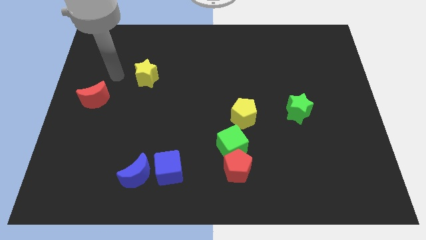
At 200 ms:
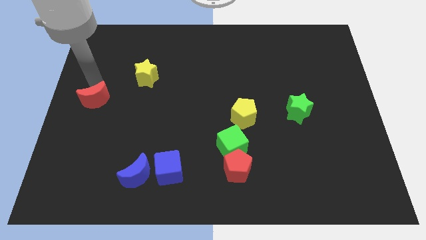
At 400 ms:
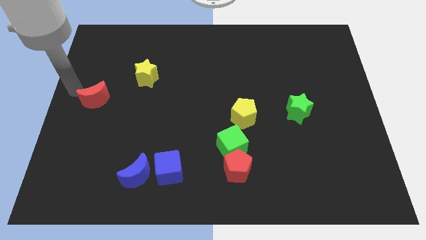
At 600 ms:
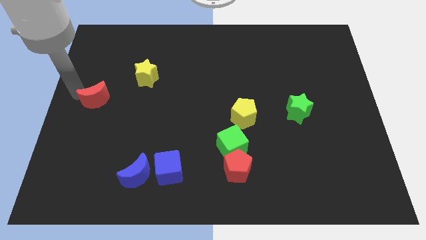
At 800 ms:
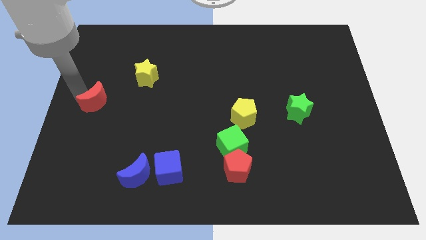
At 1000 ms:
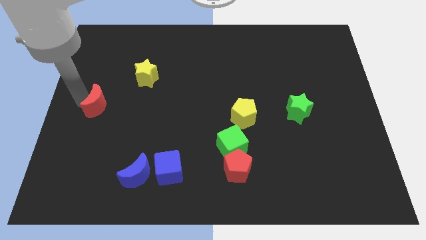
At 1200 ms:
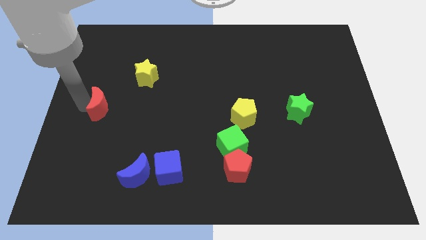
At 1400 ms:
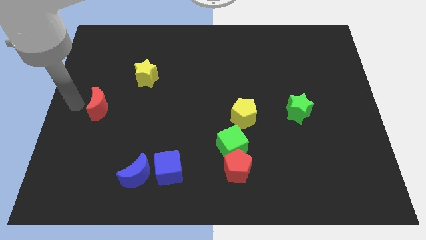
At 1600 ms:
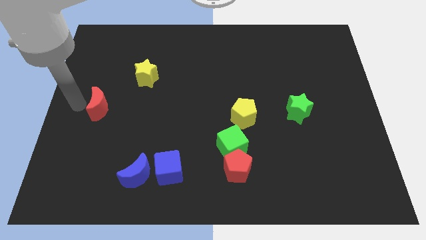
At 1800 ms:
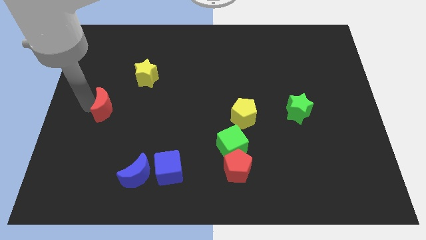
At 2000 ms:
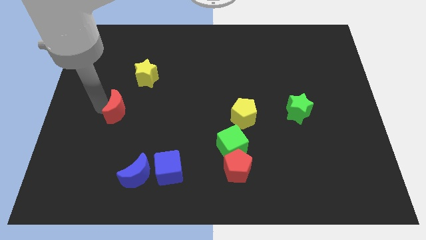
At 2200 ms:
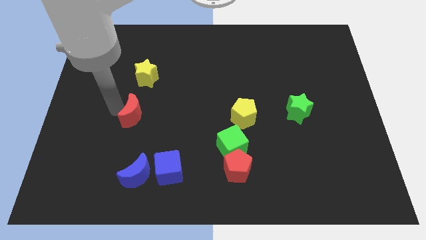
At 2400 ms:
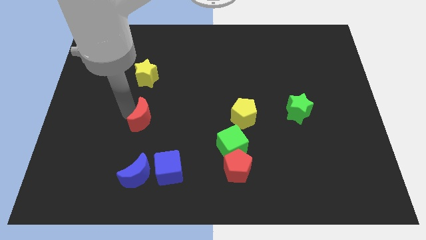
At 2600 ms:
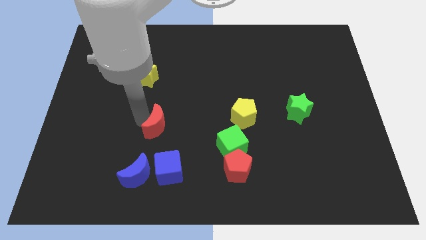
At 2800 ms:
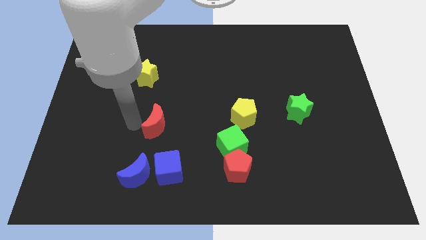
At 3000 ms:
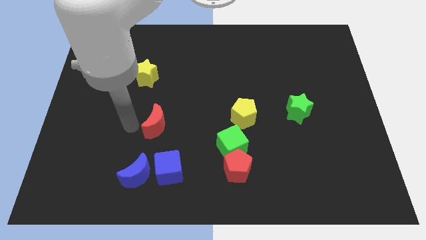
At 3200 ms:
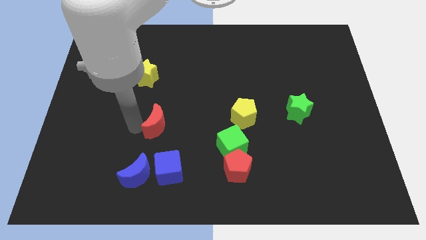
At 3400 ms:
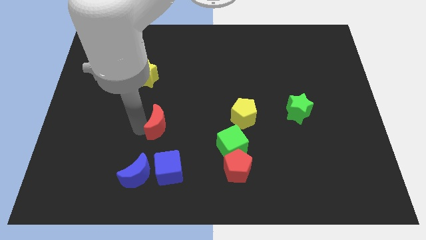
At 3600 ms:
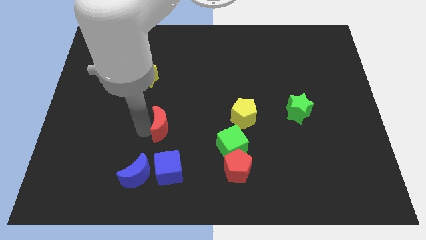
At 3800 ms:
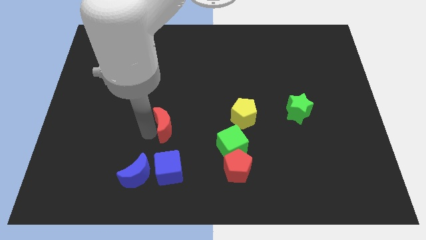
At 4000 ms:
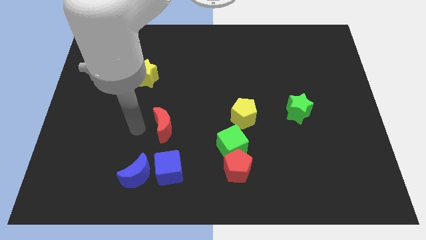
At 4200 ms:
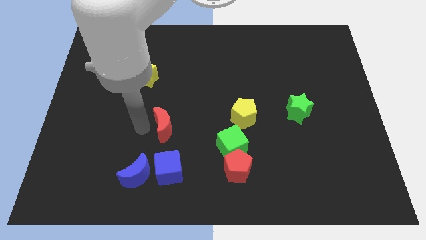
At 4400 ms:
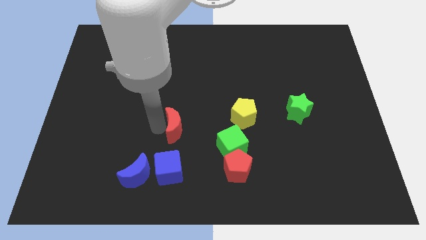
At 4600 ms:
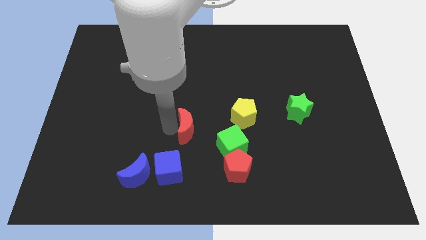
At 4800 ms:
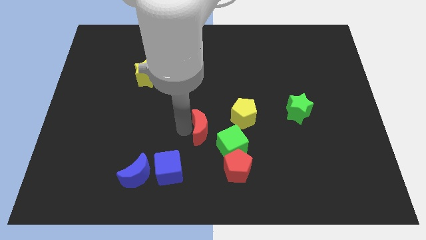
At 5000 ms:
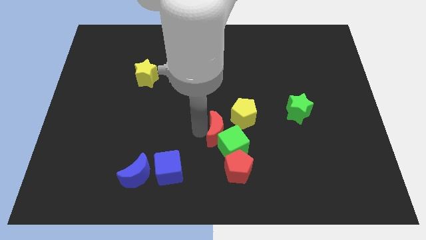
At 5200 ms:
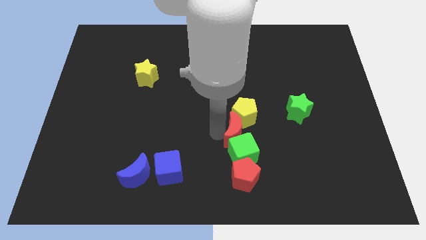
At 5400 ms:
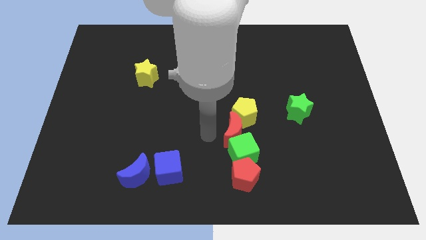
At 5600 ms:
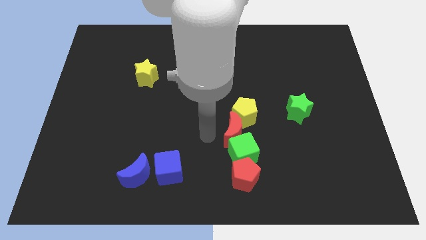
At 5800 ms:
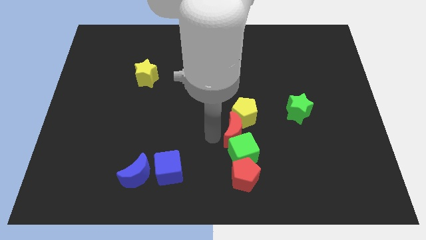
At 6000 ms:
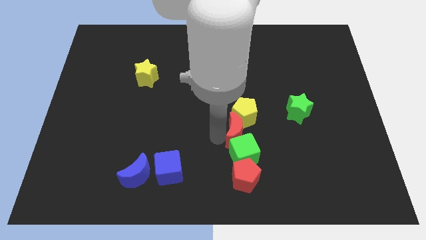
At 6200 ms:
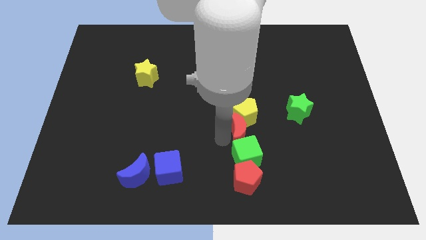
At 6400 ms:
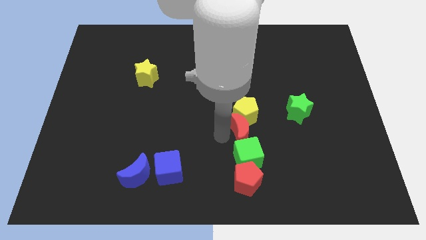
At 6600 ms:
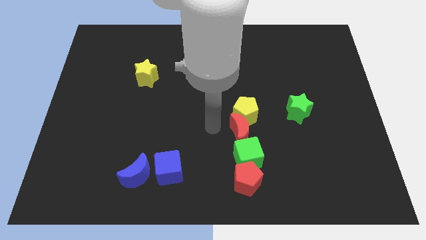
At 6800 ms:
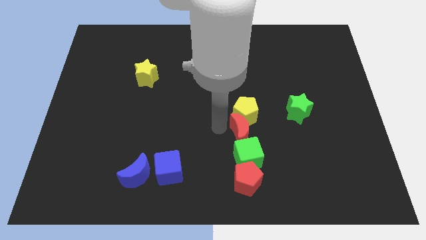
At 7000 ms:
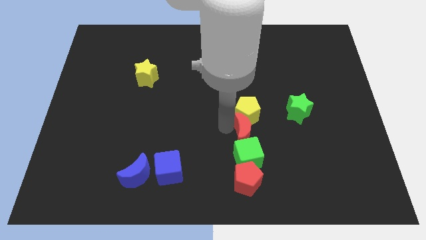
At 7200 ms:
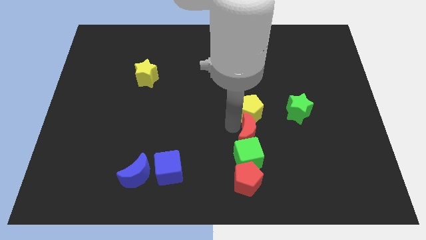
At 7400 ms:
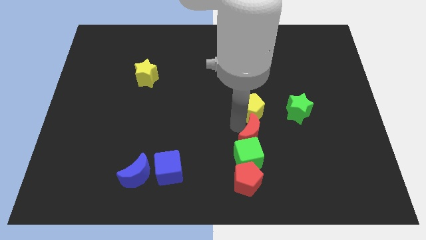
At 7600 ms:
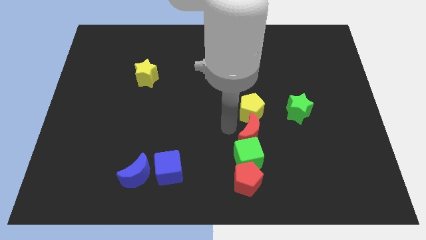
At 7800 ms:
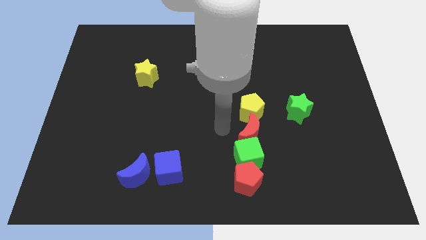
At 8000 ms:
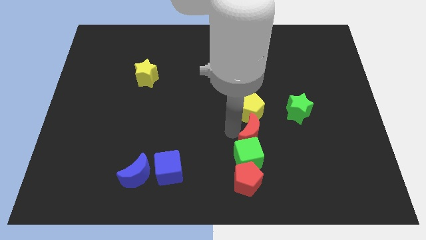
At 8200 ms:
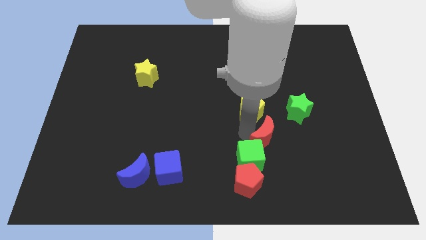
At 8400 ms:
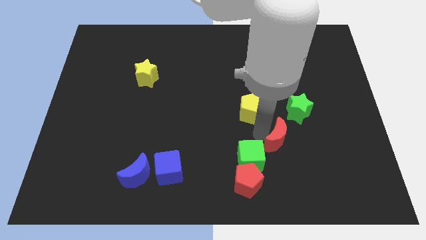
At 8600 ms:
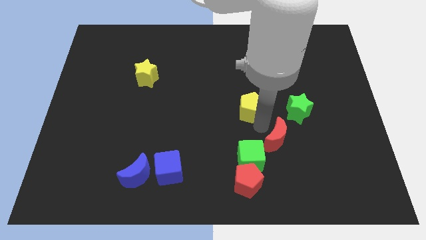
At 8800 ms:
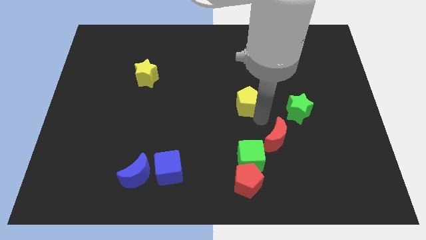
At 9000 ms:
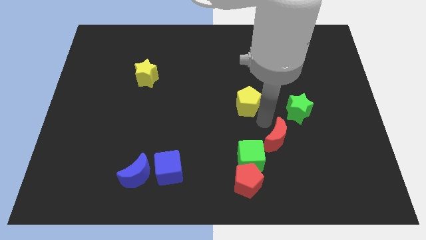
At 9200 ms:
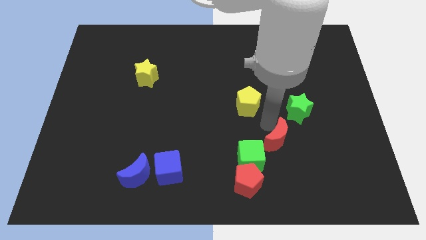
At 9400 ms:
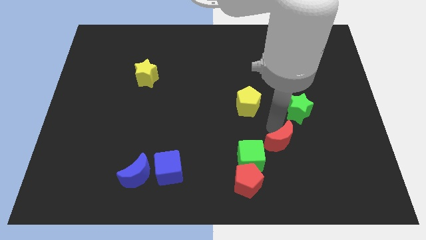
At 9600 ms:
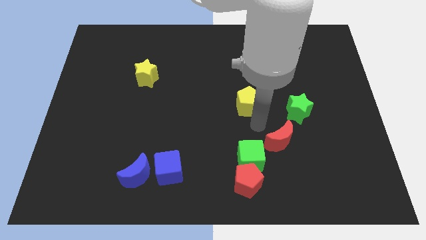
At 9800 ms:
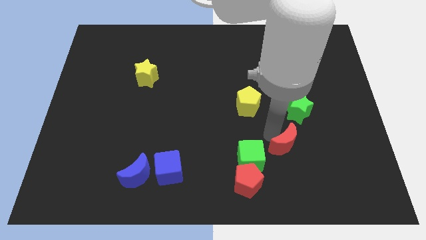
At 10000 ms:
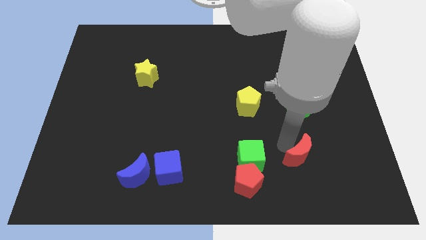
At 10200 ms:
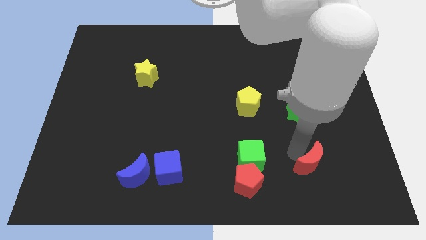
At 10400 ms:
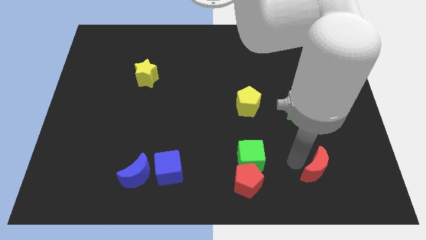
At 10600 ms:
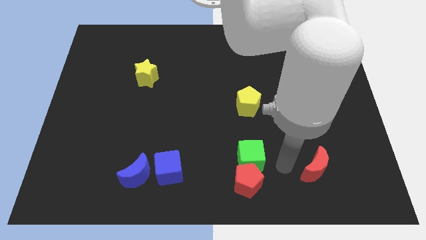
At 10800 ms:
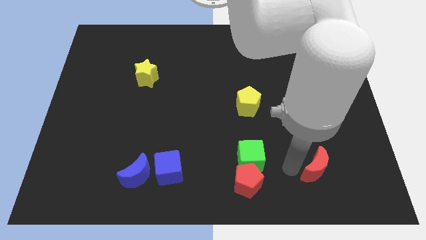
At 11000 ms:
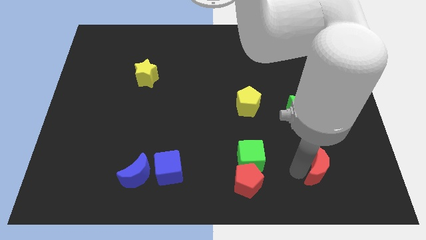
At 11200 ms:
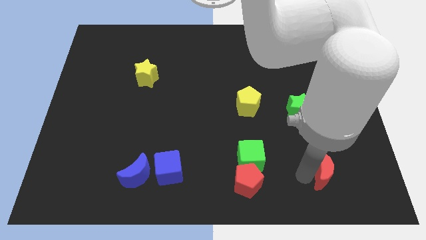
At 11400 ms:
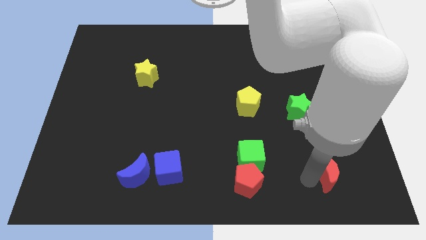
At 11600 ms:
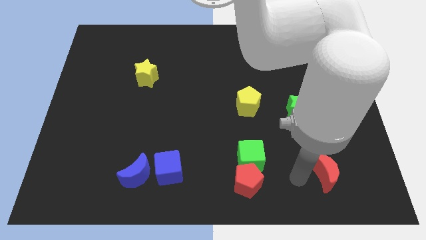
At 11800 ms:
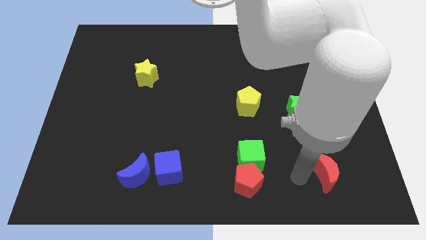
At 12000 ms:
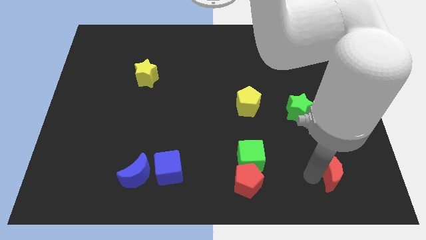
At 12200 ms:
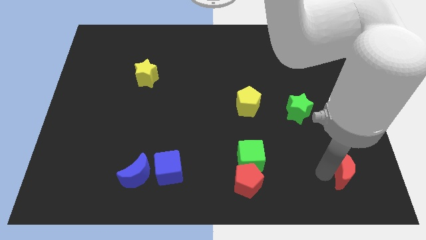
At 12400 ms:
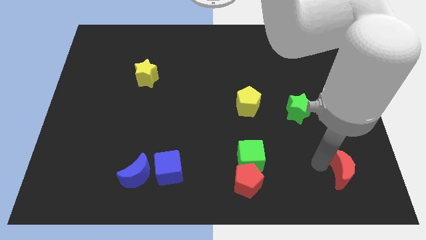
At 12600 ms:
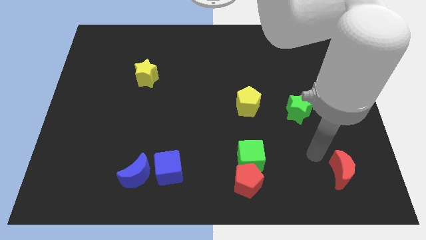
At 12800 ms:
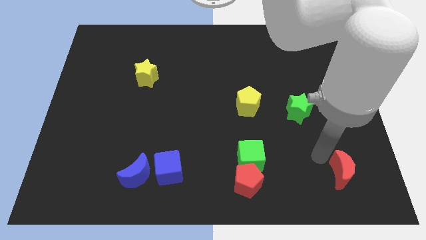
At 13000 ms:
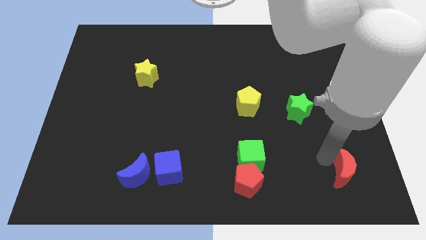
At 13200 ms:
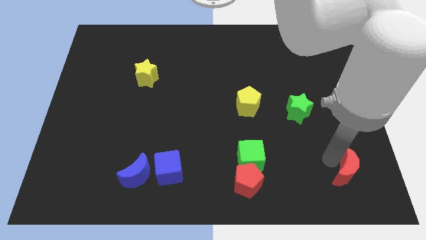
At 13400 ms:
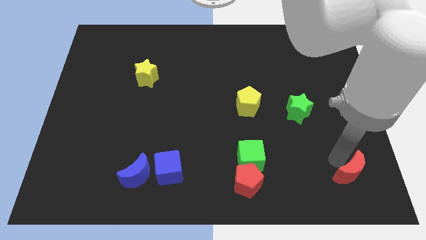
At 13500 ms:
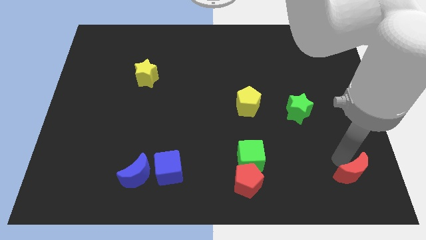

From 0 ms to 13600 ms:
put the red moon to the lower right corner
